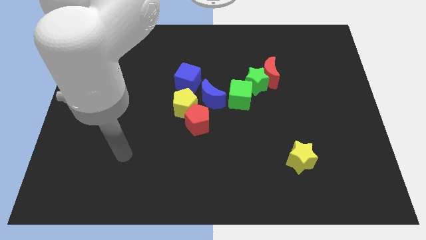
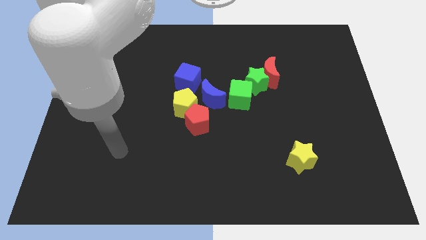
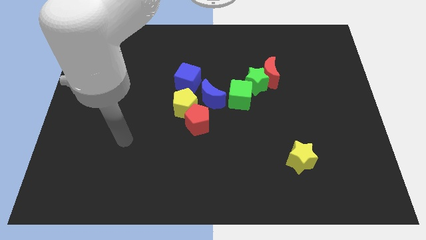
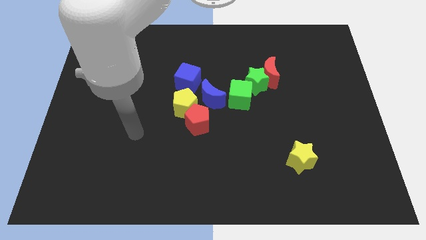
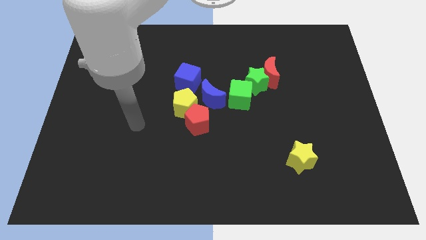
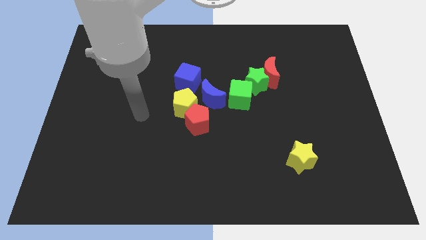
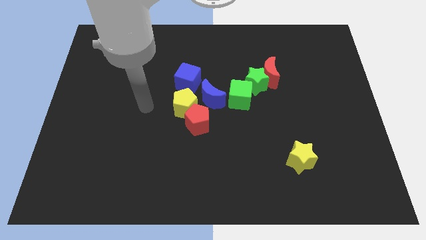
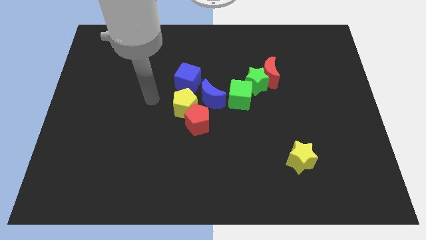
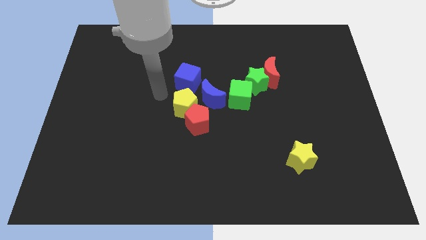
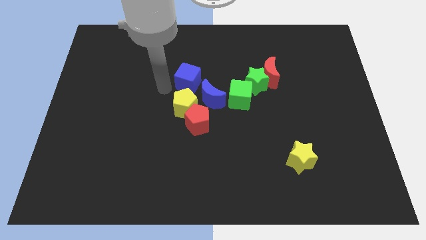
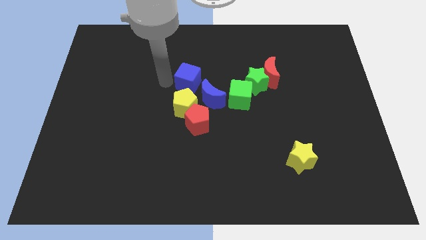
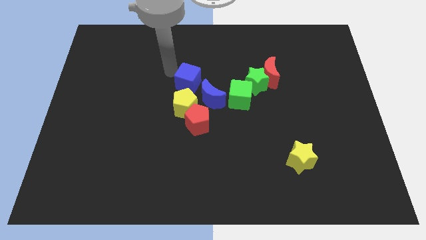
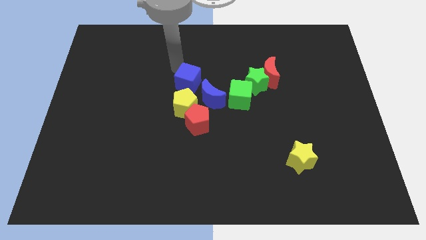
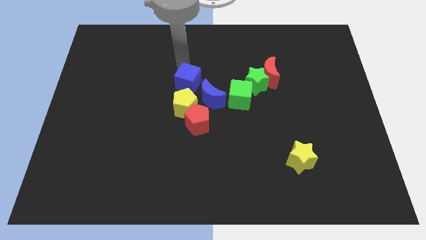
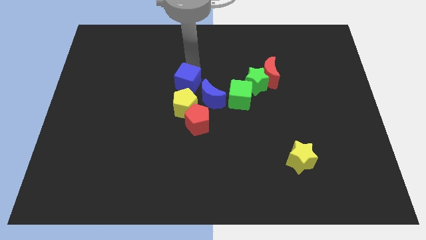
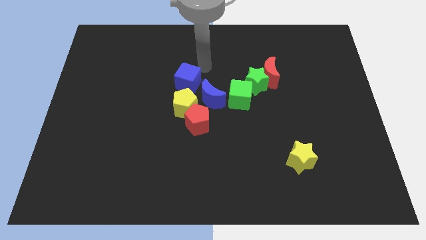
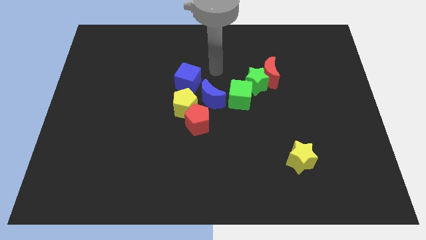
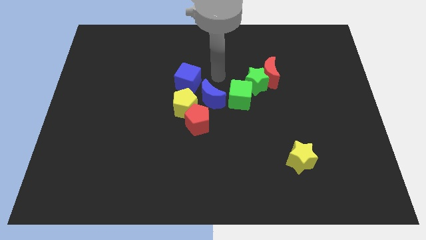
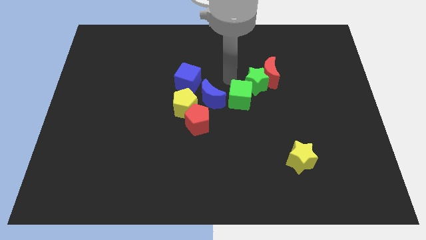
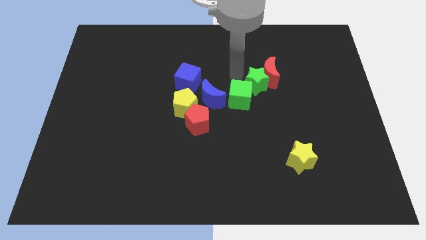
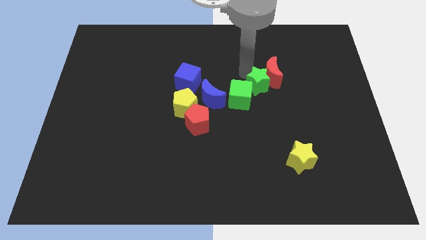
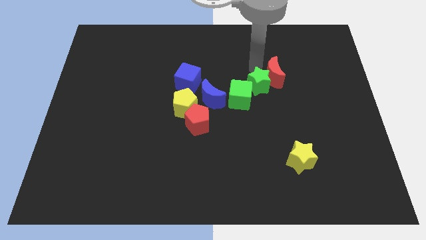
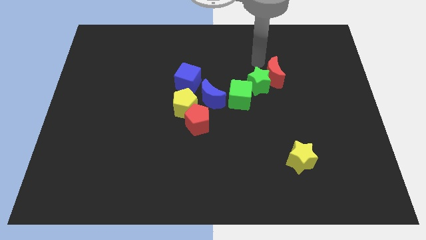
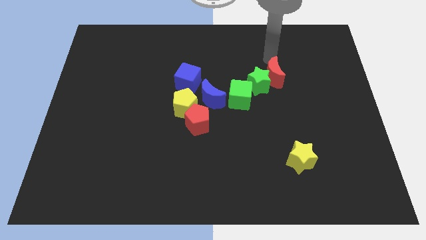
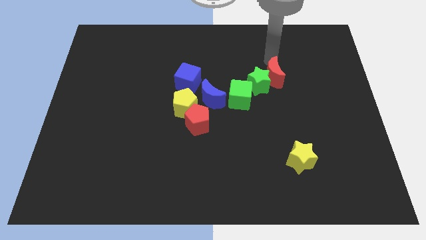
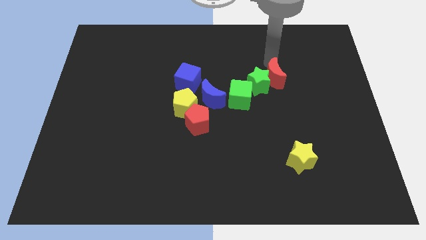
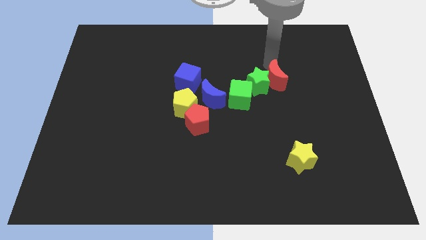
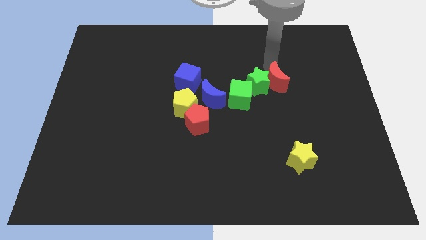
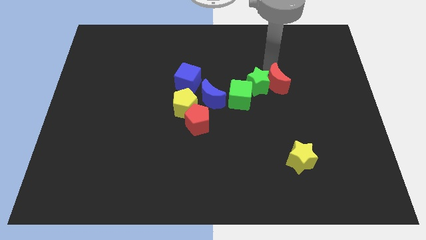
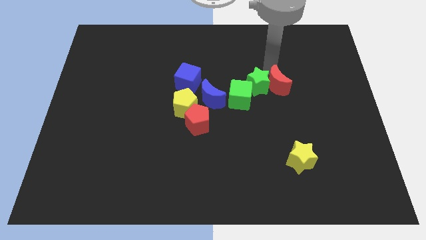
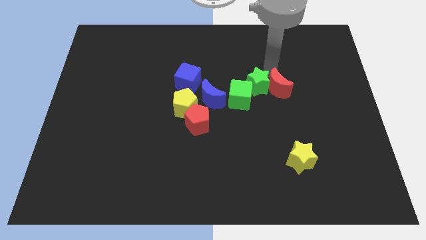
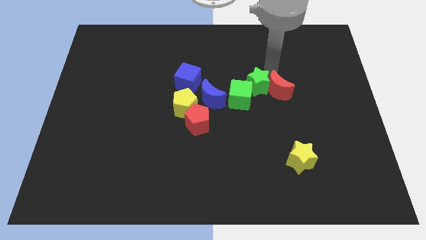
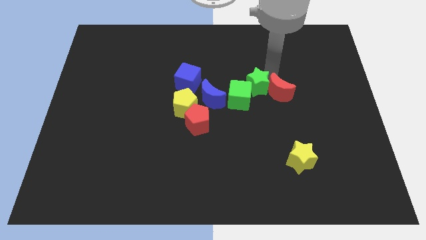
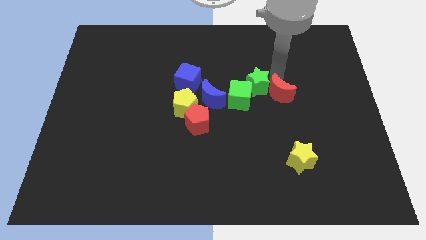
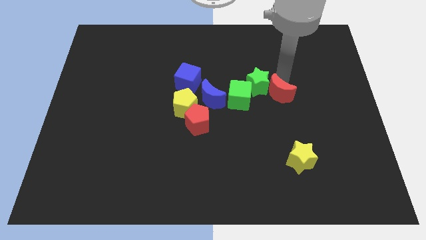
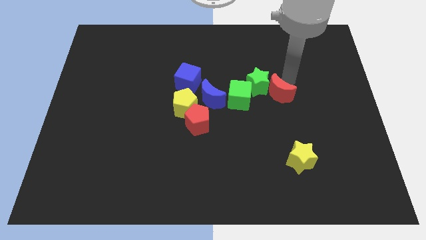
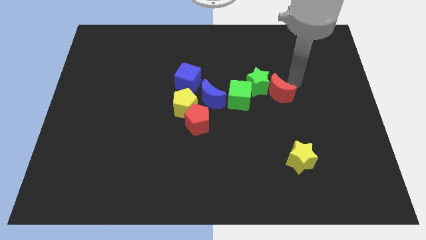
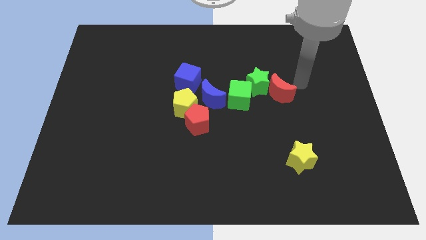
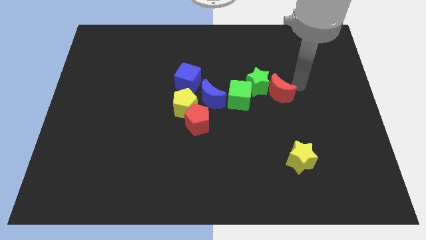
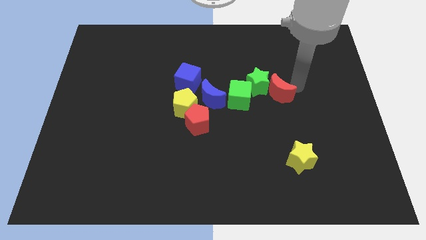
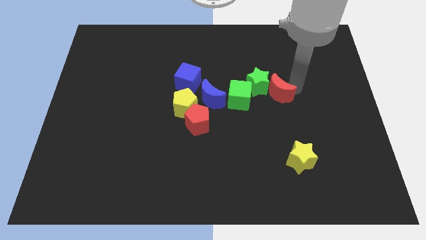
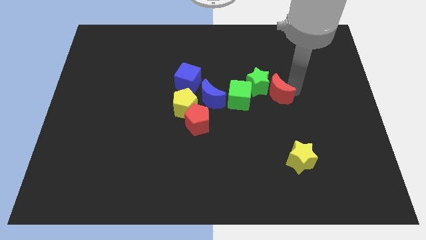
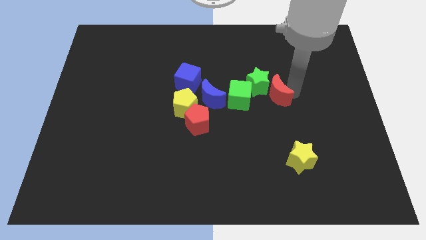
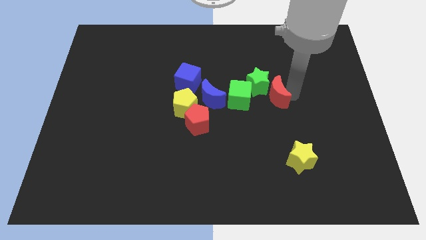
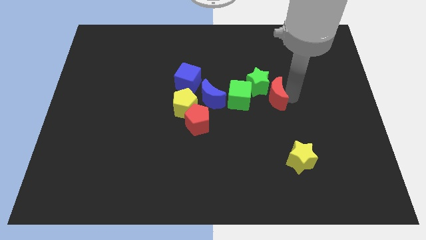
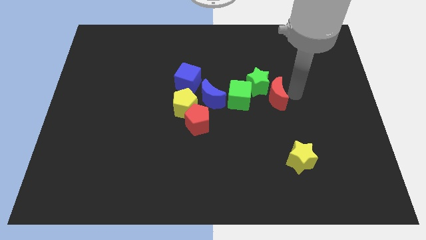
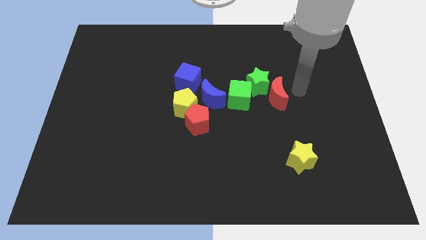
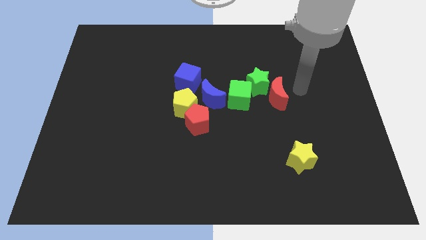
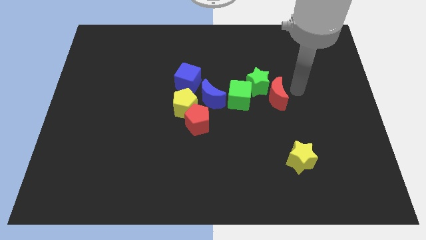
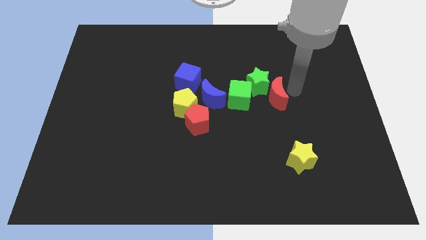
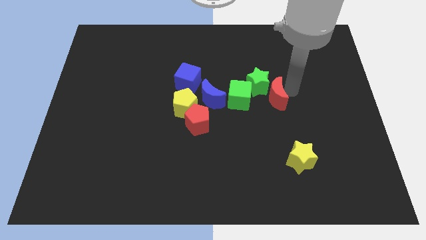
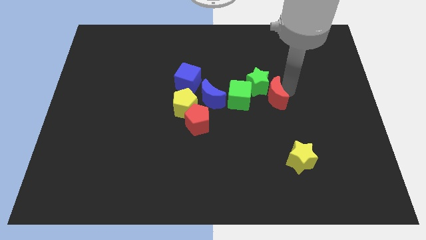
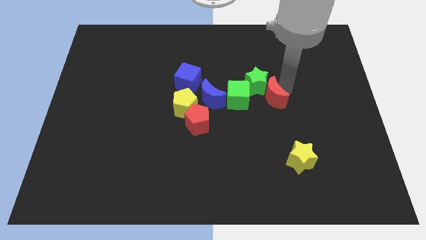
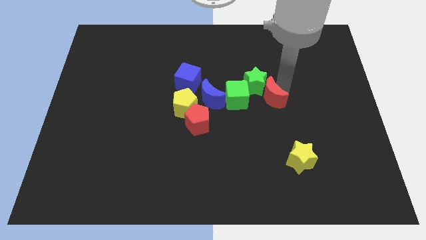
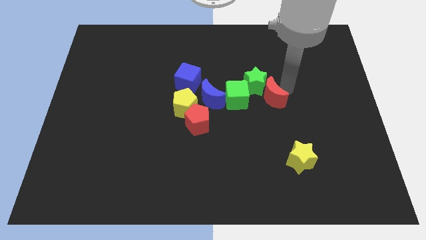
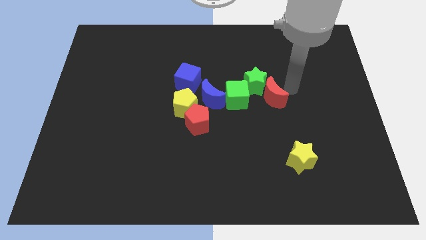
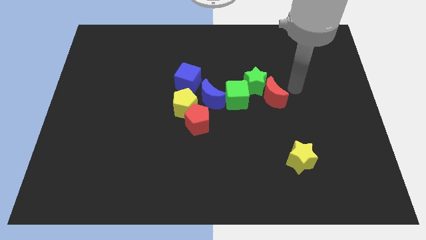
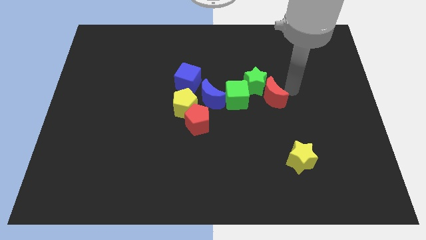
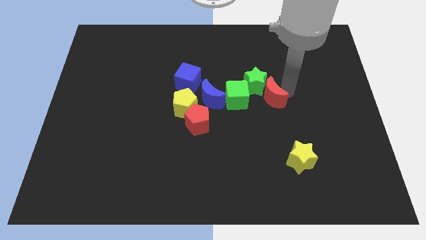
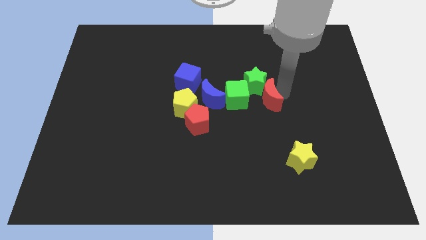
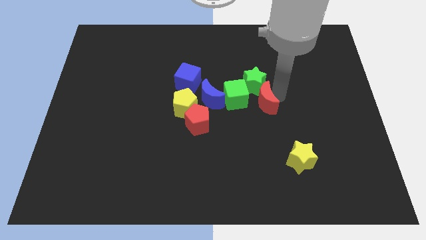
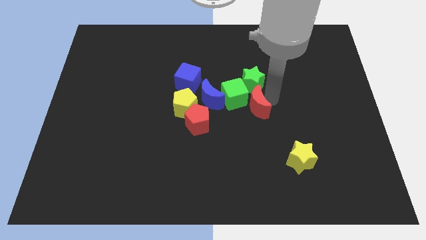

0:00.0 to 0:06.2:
push the red moon a bit downwards and then left

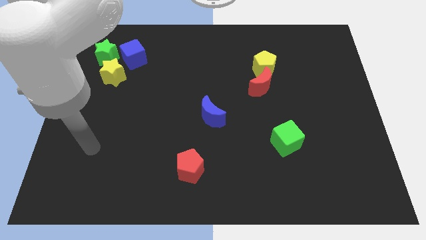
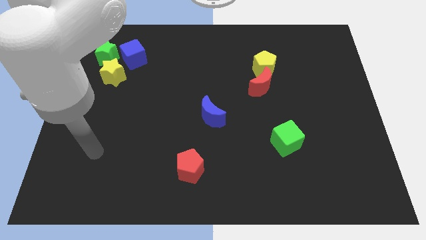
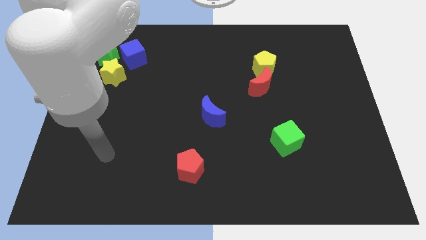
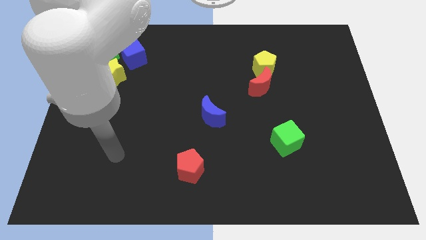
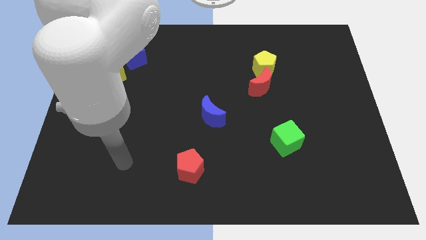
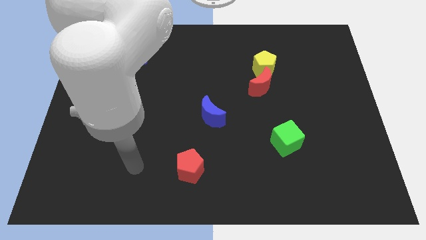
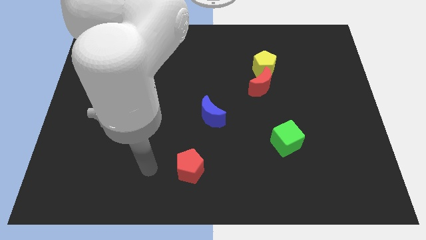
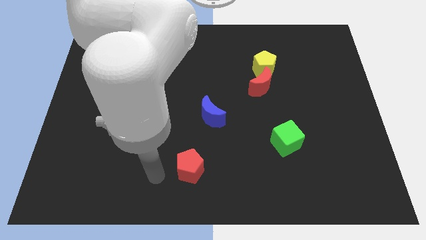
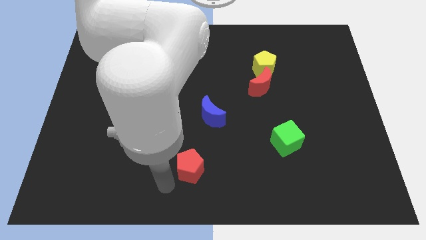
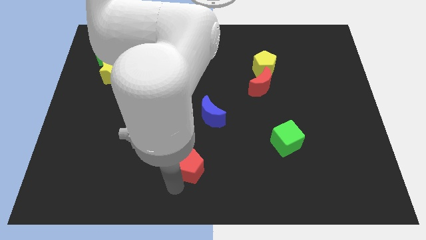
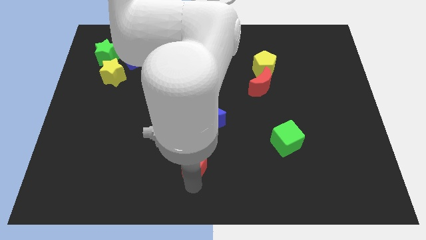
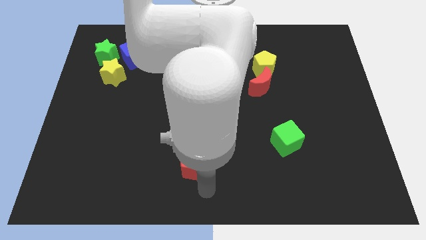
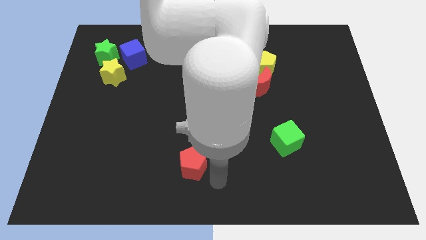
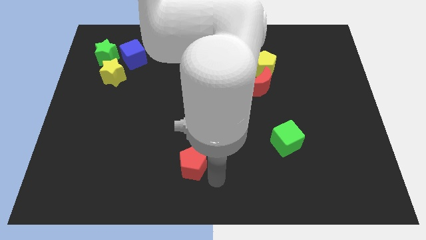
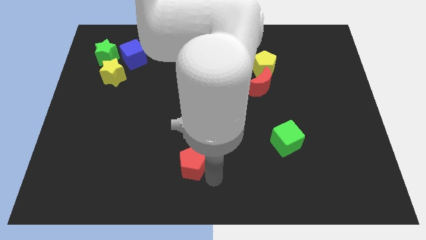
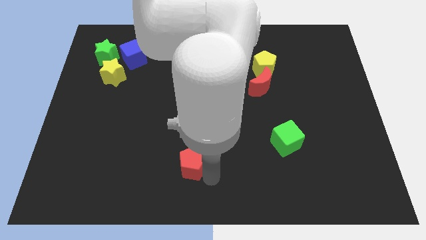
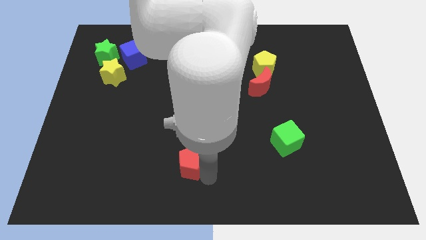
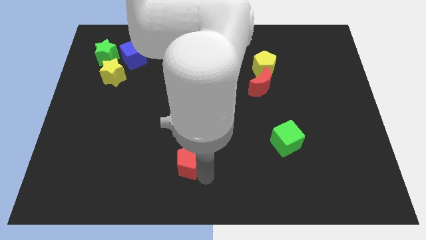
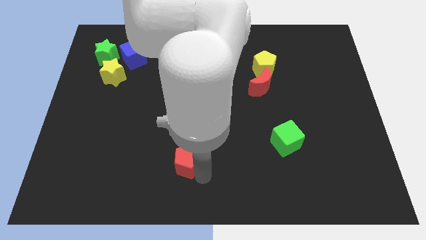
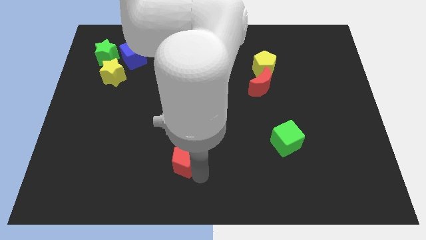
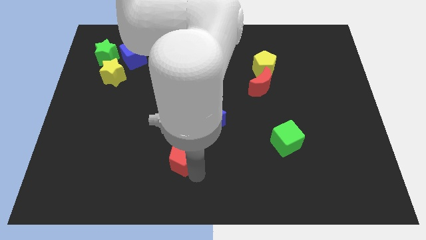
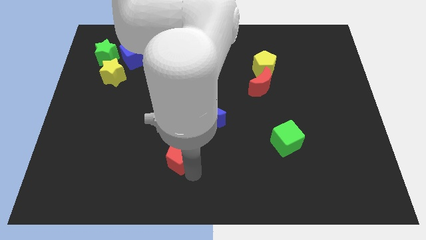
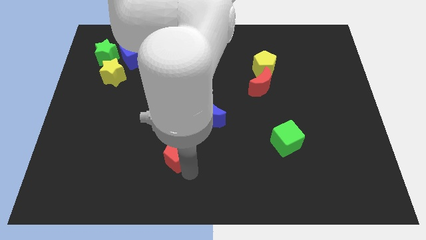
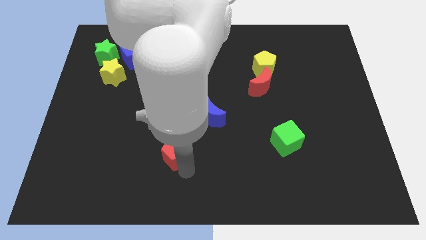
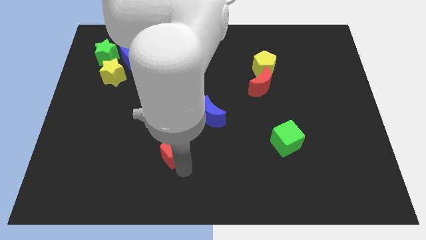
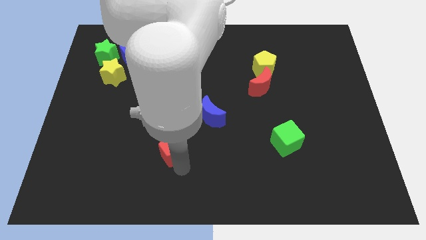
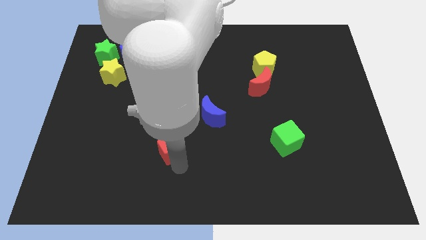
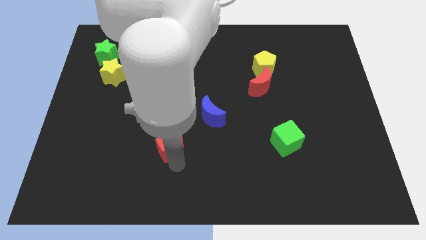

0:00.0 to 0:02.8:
push the red pentagon diagonally up and to the left somewhat
